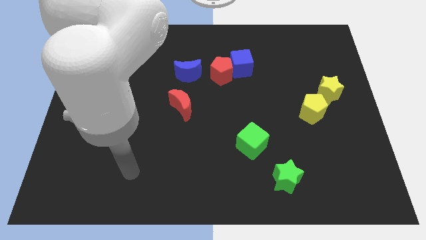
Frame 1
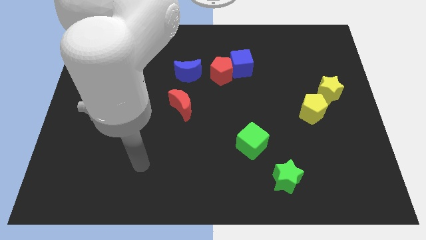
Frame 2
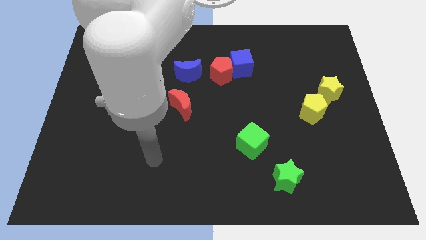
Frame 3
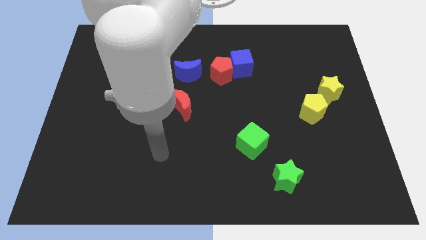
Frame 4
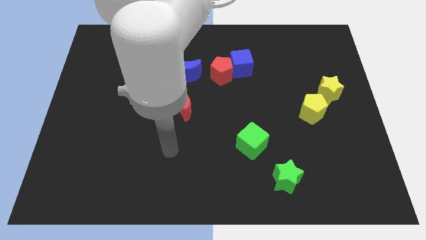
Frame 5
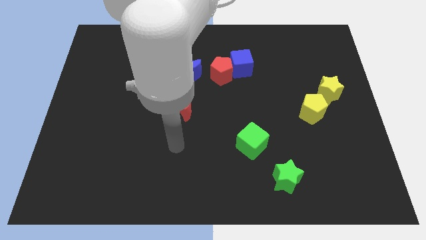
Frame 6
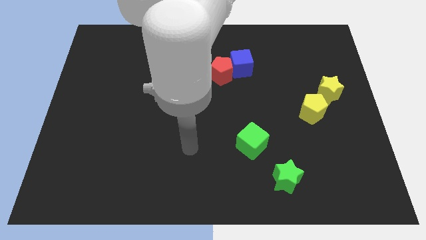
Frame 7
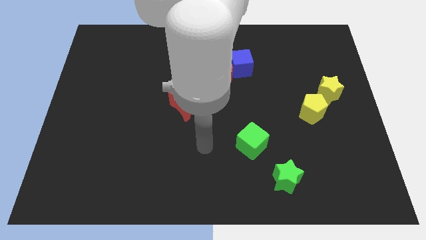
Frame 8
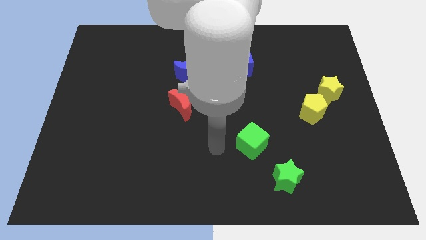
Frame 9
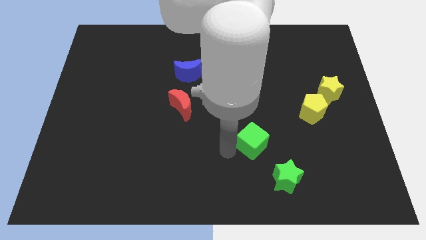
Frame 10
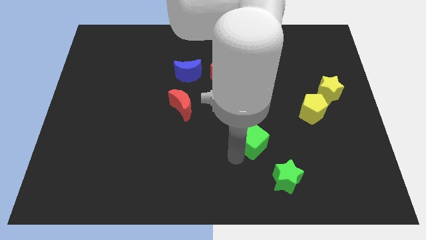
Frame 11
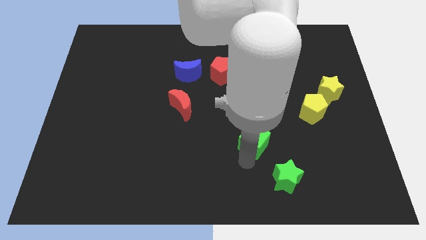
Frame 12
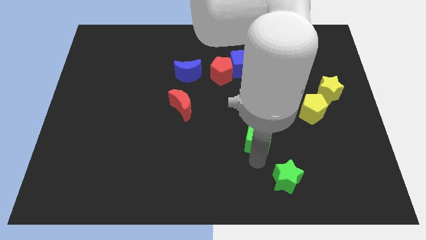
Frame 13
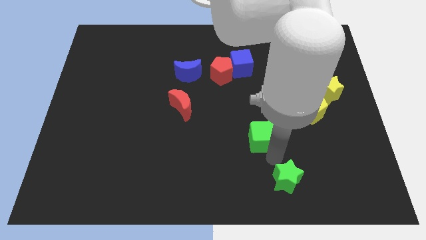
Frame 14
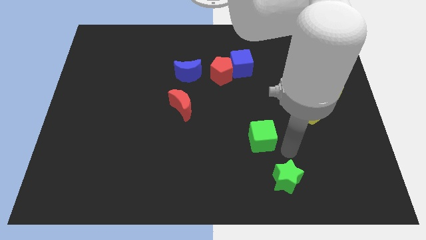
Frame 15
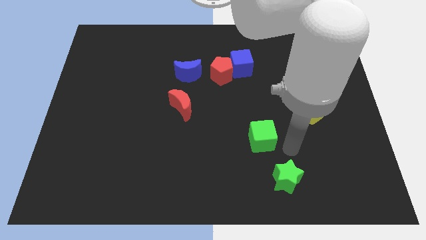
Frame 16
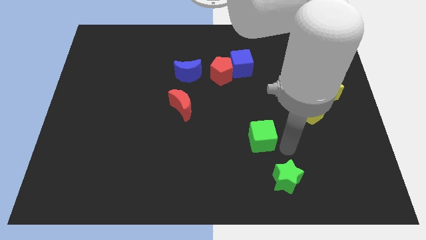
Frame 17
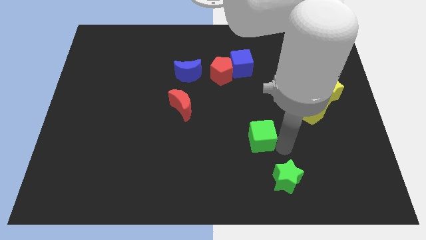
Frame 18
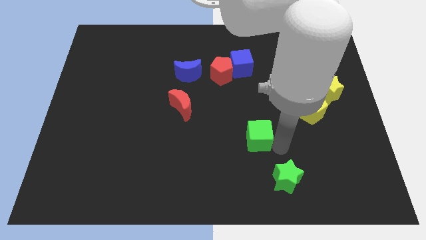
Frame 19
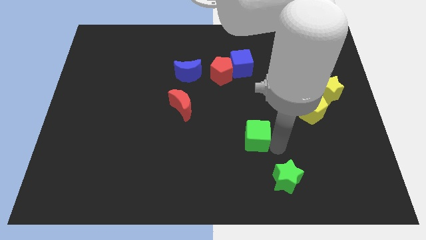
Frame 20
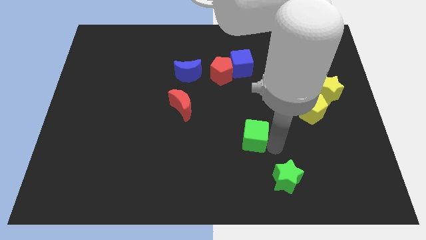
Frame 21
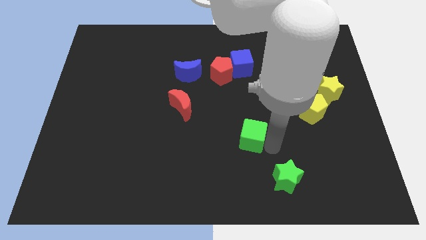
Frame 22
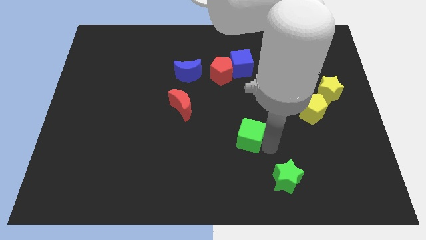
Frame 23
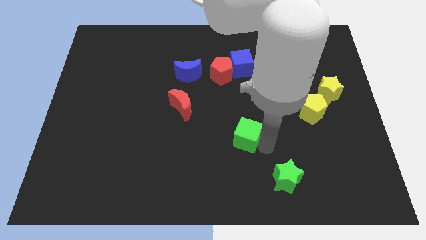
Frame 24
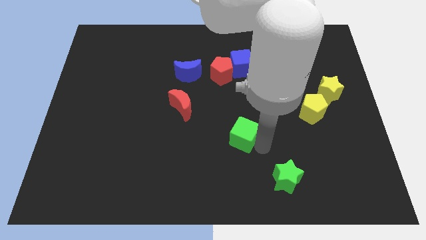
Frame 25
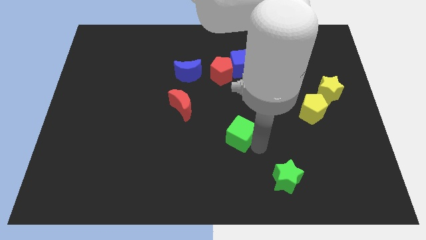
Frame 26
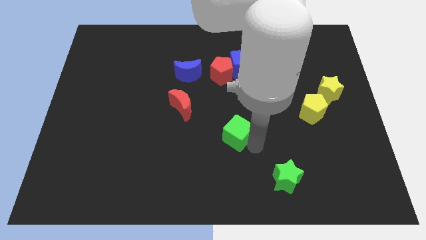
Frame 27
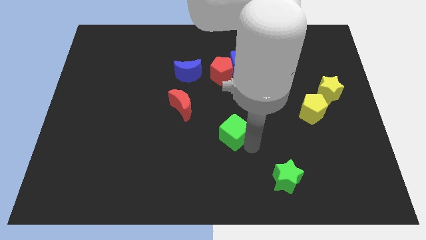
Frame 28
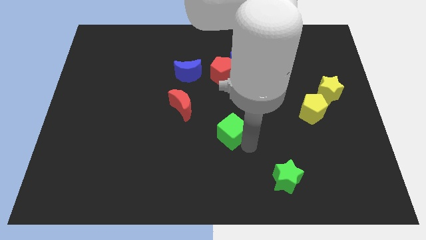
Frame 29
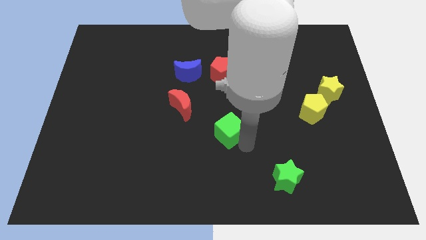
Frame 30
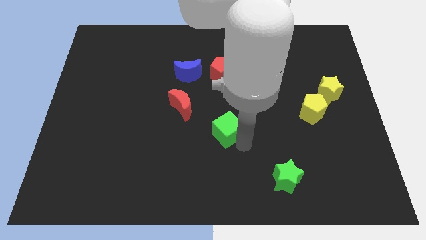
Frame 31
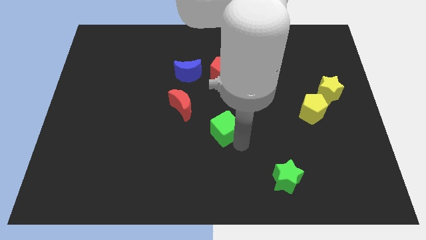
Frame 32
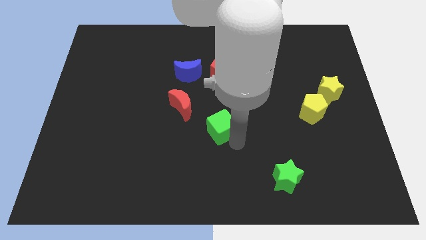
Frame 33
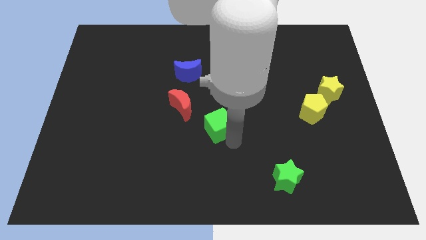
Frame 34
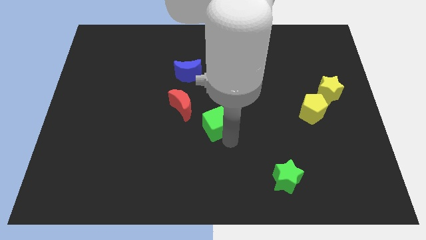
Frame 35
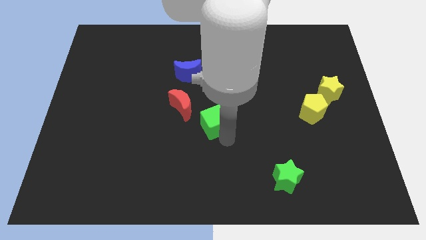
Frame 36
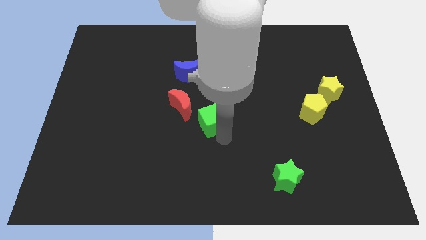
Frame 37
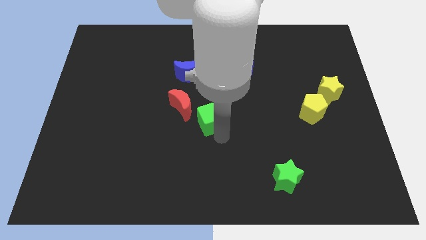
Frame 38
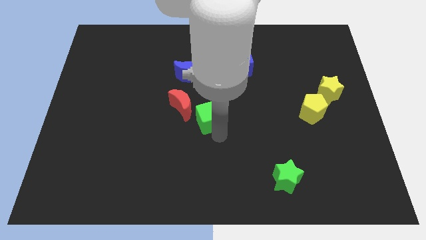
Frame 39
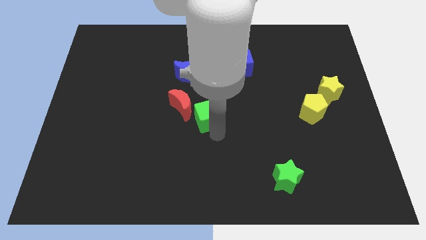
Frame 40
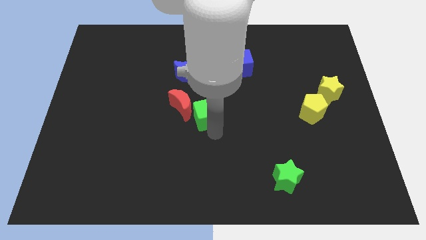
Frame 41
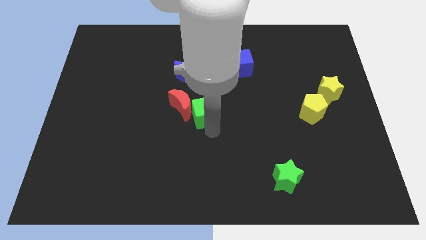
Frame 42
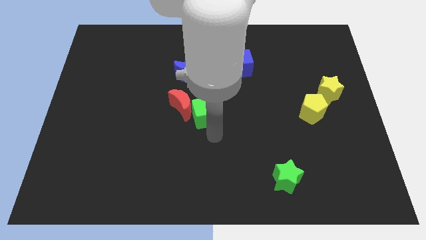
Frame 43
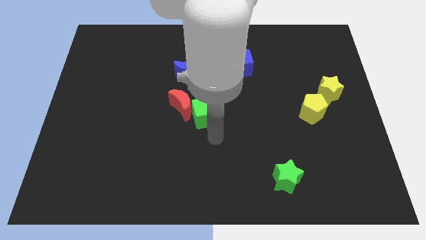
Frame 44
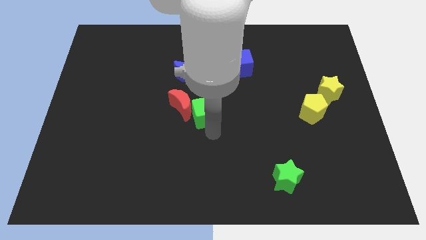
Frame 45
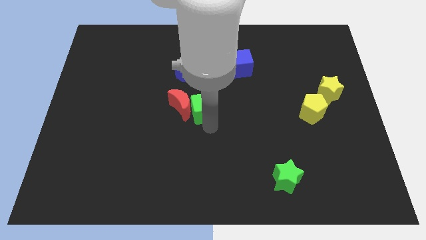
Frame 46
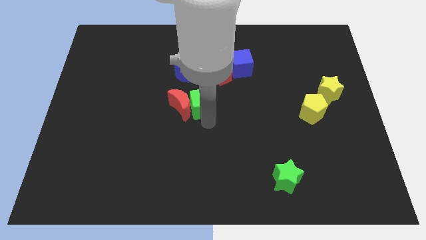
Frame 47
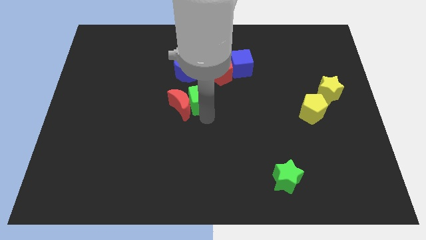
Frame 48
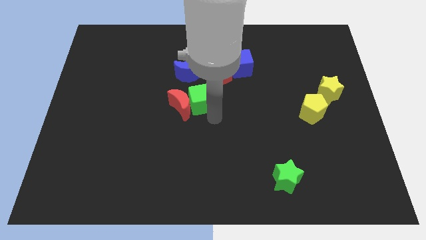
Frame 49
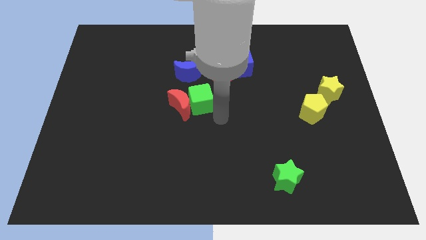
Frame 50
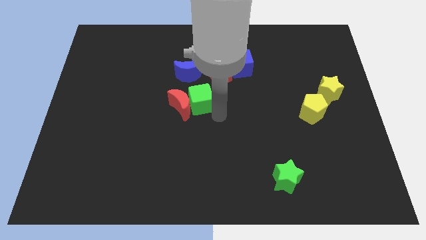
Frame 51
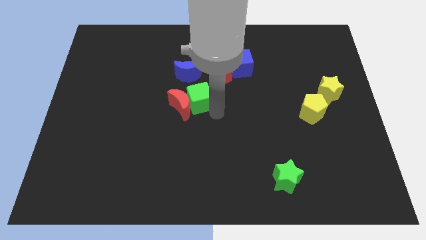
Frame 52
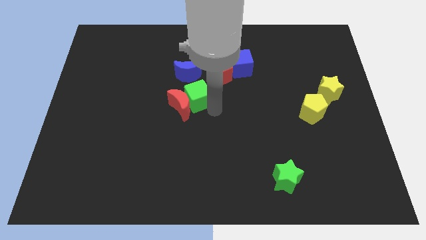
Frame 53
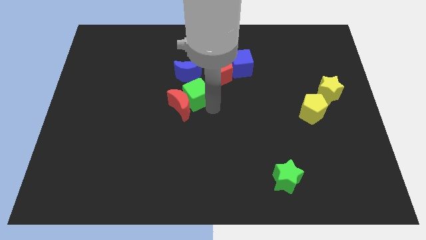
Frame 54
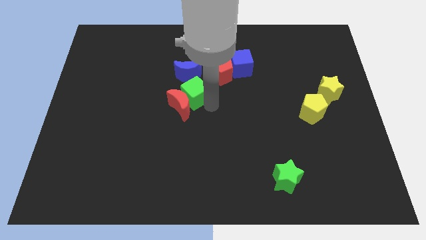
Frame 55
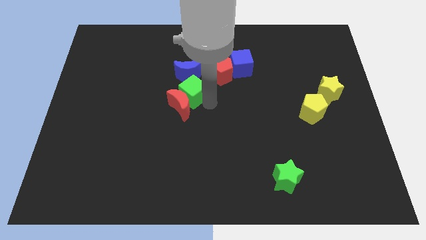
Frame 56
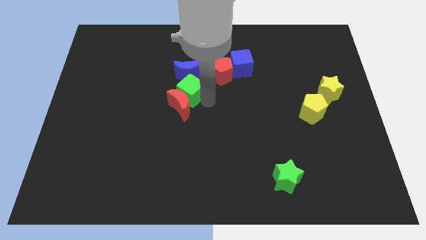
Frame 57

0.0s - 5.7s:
push the green cube up and to the left

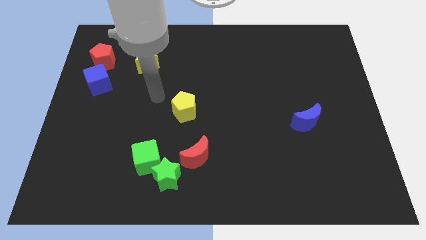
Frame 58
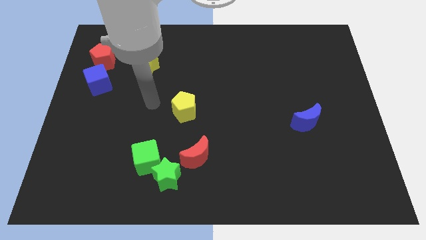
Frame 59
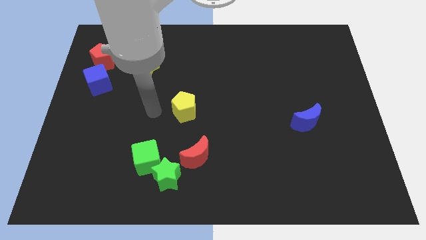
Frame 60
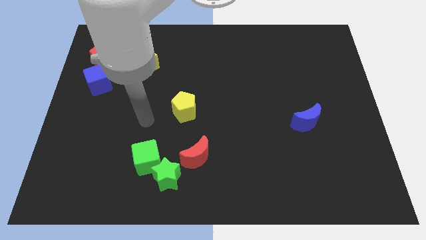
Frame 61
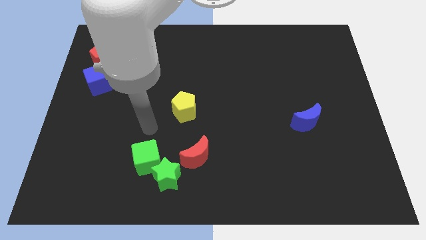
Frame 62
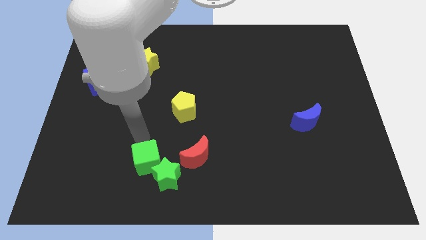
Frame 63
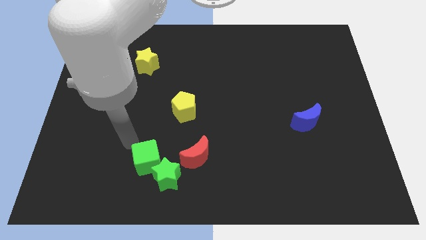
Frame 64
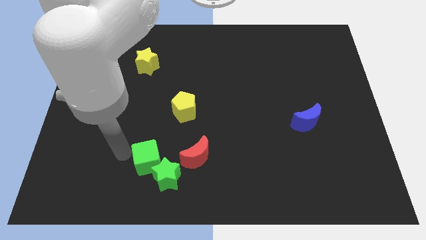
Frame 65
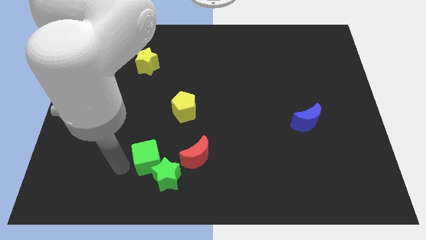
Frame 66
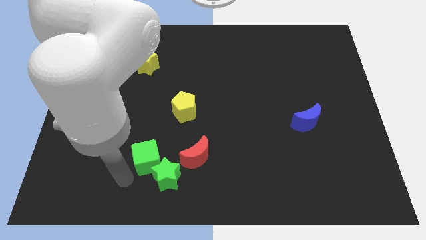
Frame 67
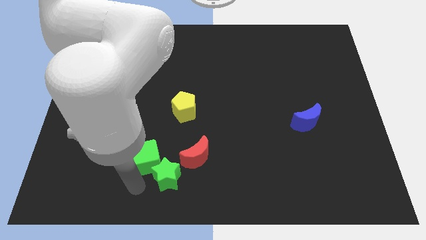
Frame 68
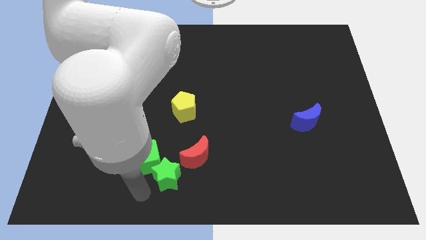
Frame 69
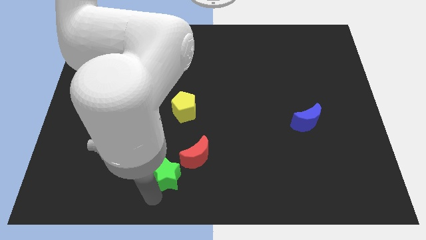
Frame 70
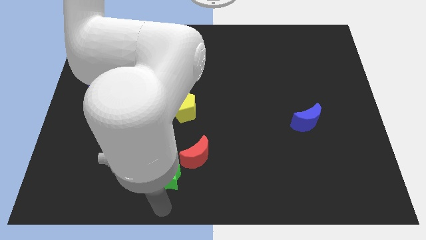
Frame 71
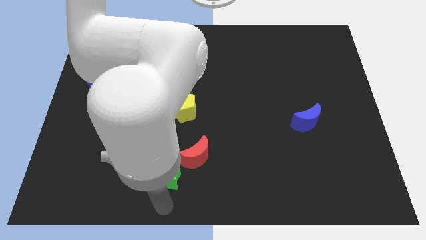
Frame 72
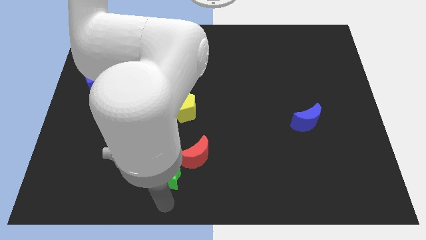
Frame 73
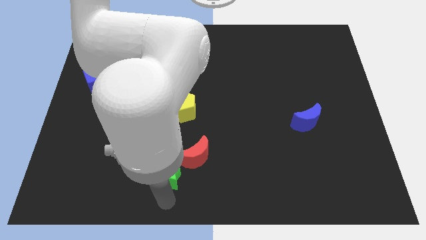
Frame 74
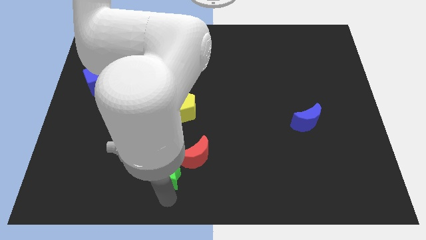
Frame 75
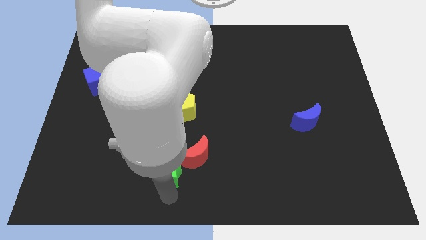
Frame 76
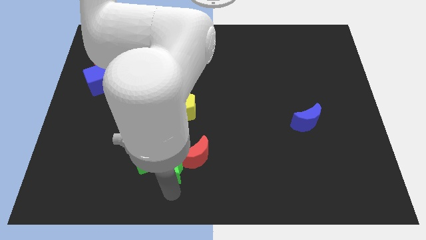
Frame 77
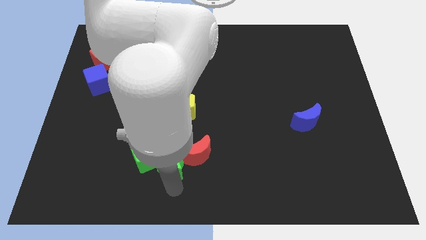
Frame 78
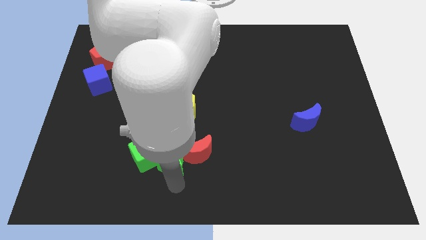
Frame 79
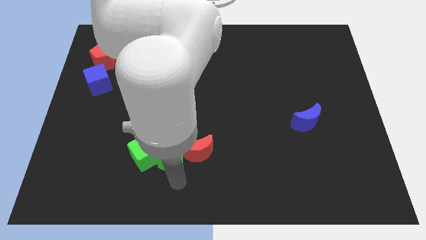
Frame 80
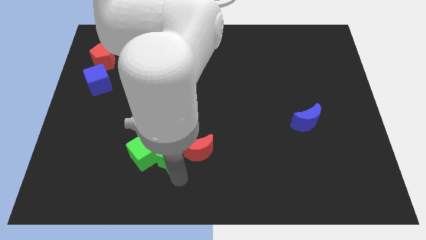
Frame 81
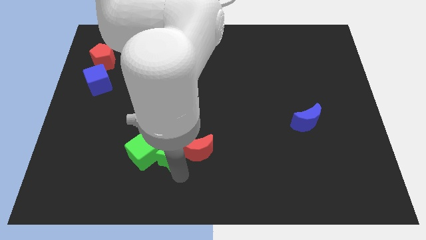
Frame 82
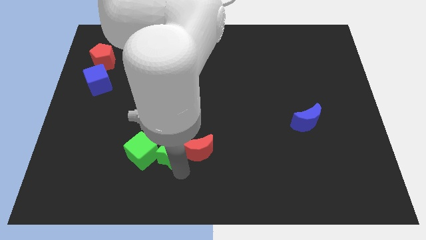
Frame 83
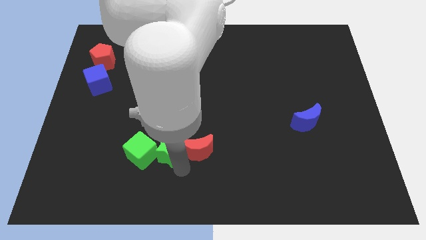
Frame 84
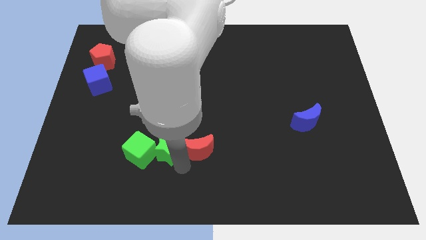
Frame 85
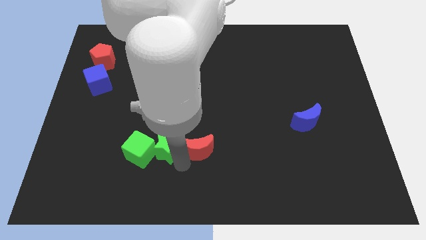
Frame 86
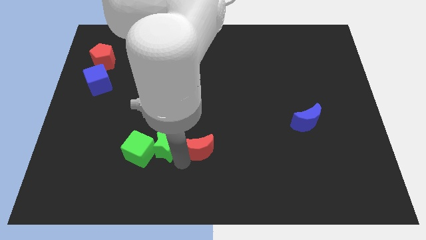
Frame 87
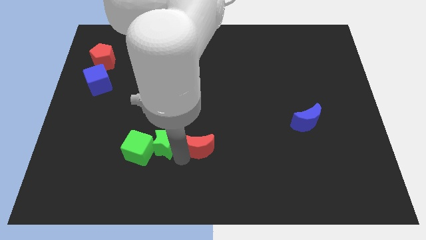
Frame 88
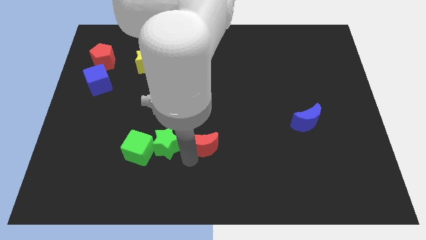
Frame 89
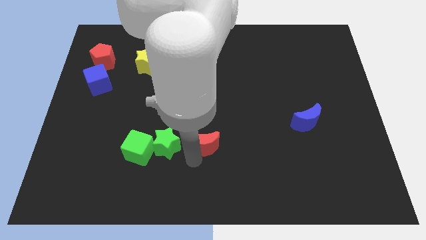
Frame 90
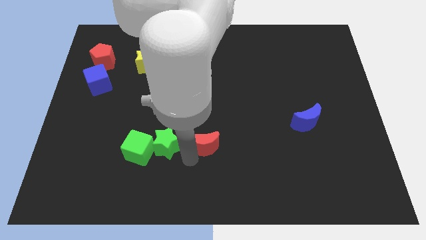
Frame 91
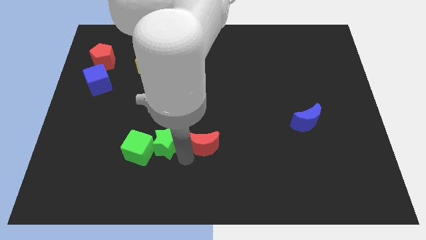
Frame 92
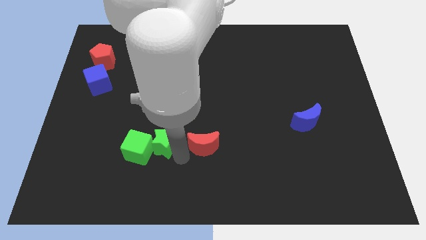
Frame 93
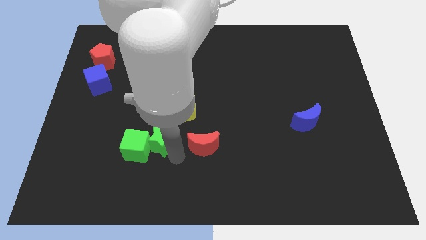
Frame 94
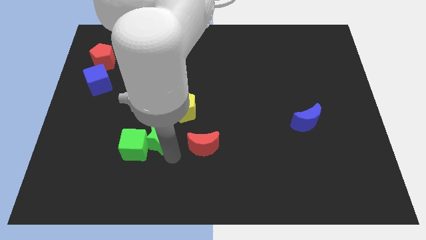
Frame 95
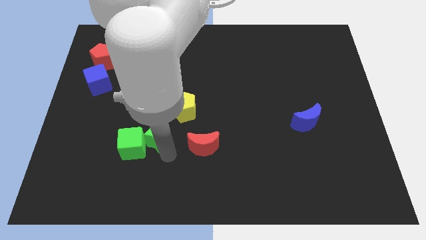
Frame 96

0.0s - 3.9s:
slightly move the green star diagonally upwards and to the left
